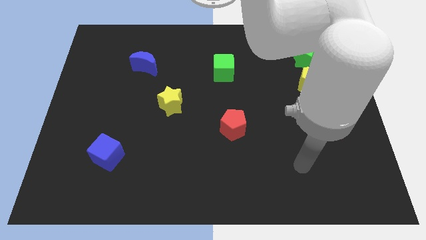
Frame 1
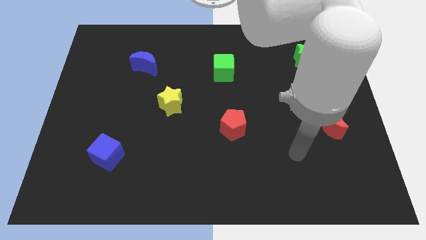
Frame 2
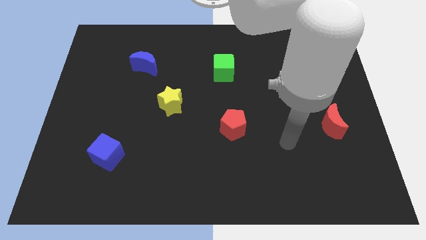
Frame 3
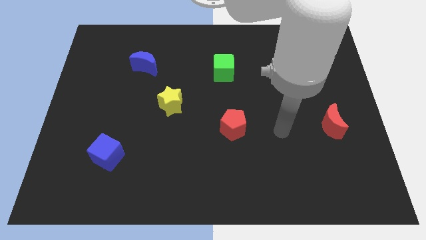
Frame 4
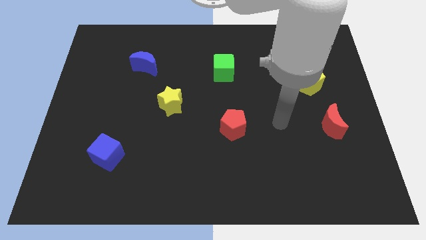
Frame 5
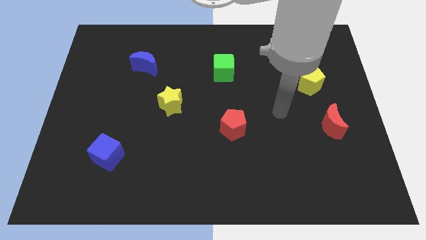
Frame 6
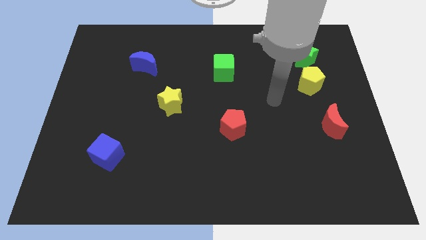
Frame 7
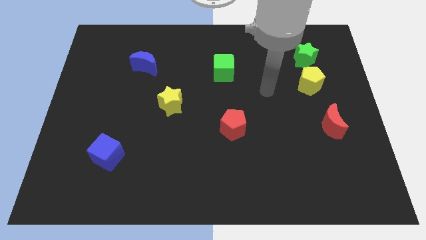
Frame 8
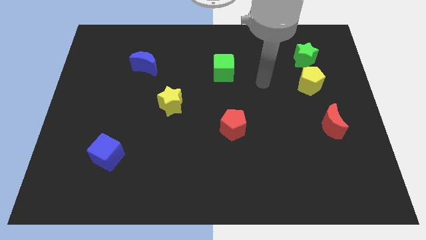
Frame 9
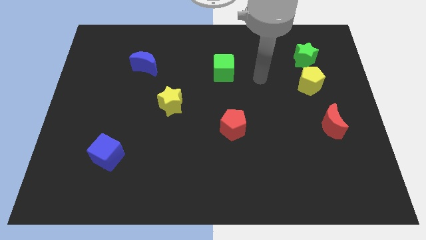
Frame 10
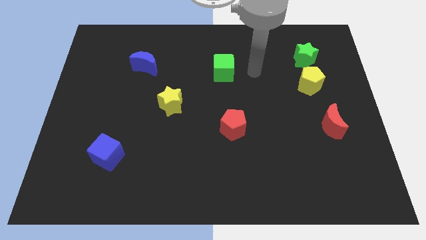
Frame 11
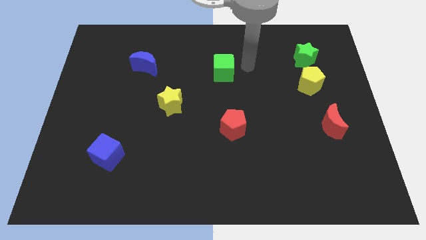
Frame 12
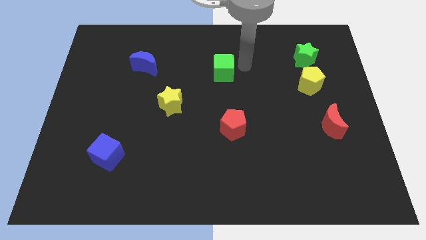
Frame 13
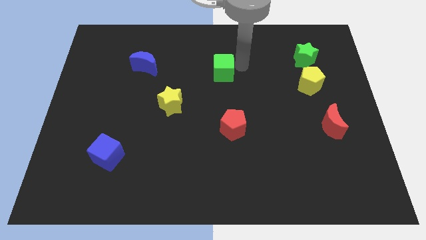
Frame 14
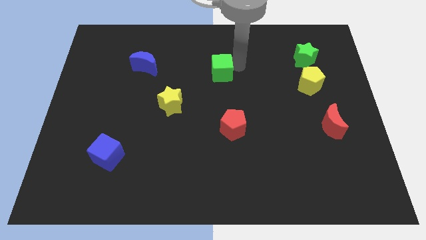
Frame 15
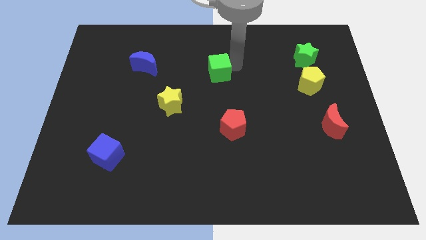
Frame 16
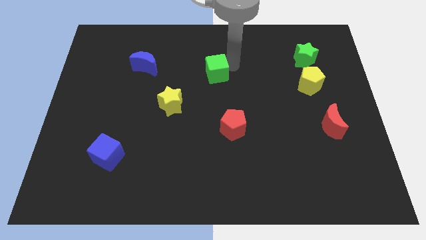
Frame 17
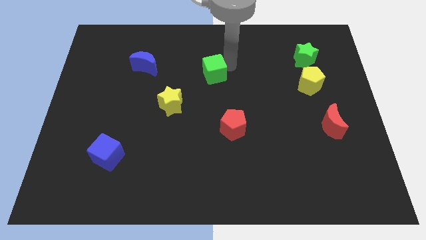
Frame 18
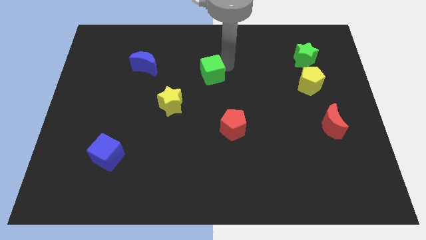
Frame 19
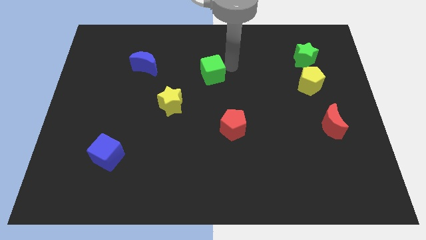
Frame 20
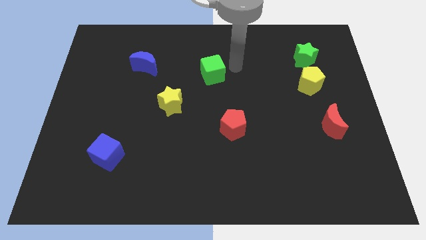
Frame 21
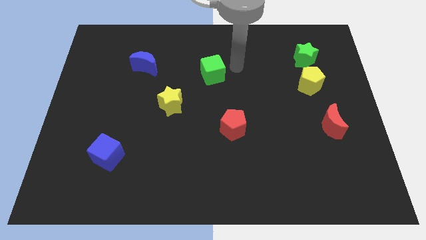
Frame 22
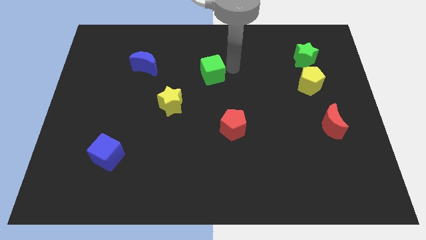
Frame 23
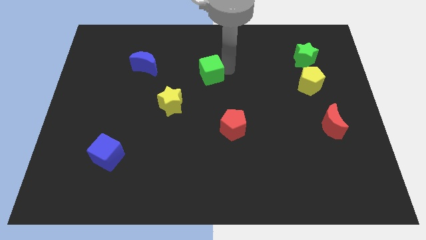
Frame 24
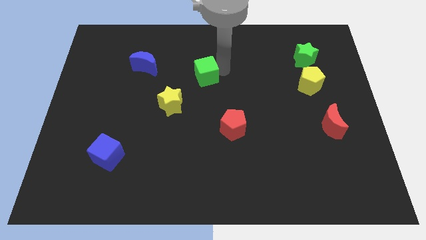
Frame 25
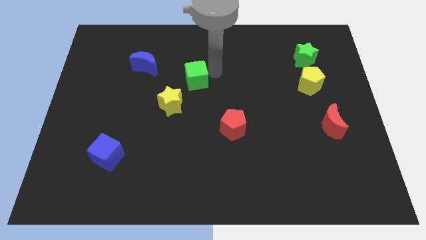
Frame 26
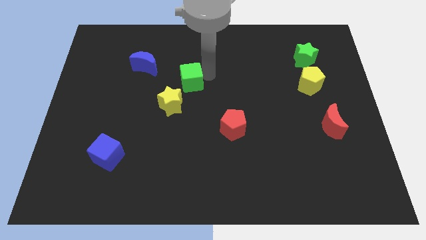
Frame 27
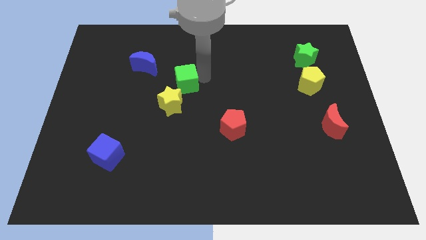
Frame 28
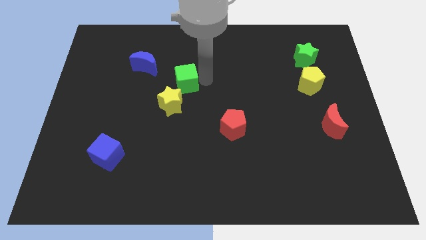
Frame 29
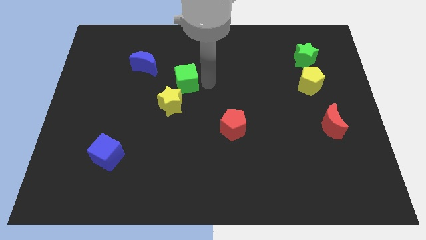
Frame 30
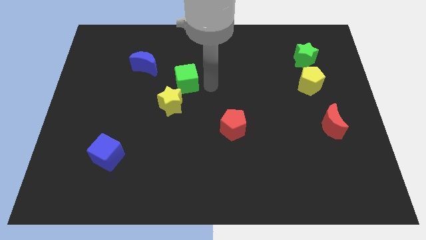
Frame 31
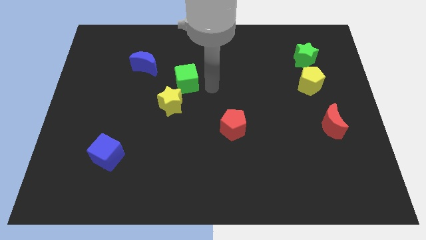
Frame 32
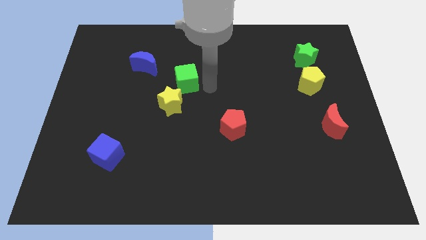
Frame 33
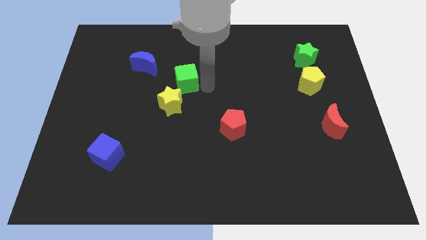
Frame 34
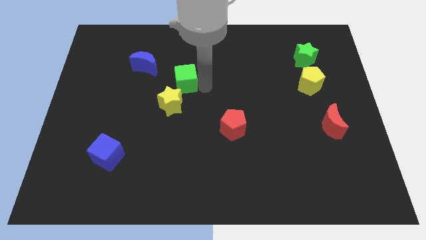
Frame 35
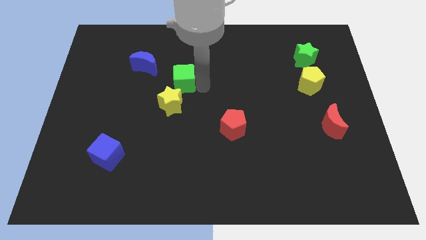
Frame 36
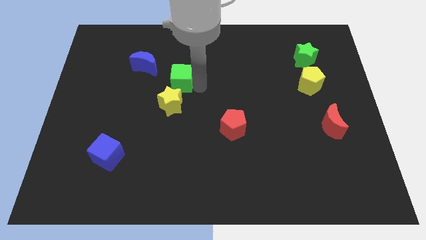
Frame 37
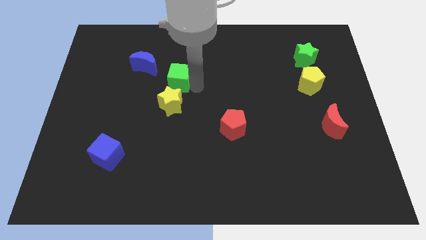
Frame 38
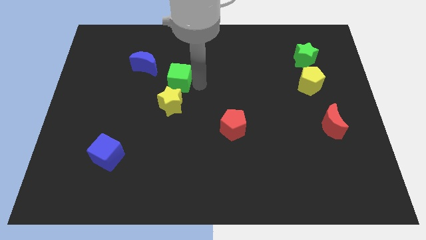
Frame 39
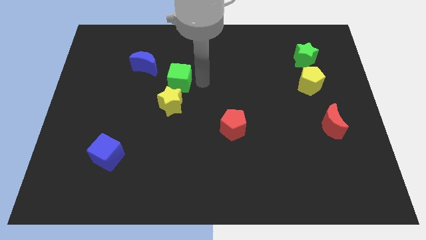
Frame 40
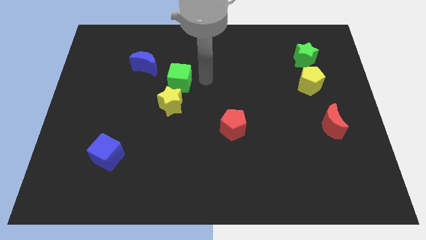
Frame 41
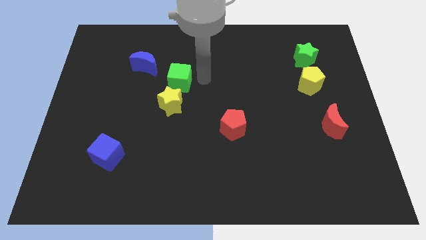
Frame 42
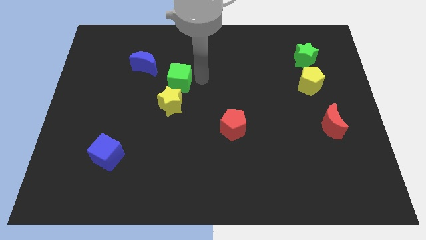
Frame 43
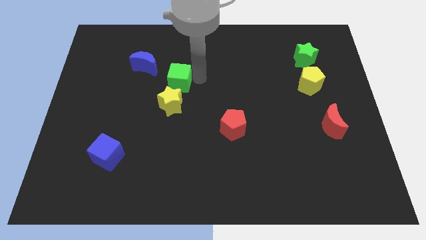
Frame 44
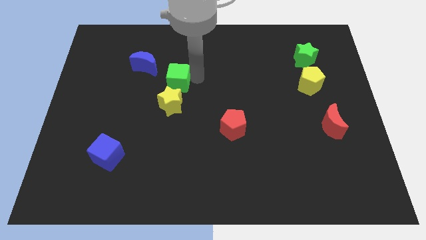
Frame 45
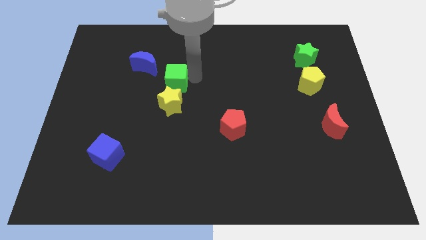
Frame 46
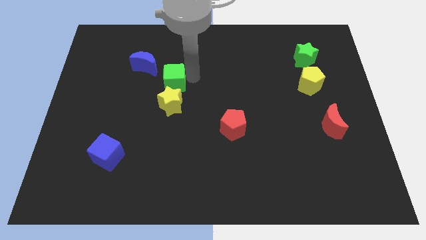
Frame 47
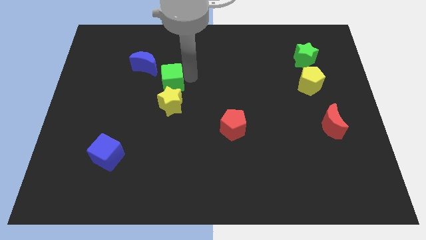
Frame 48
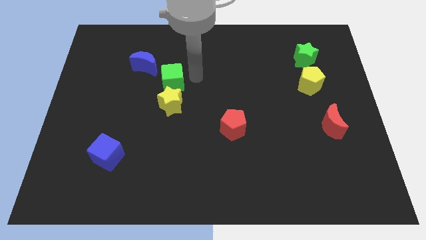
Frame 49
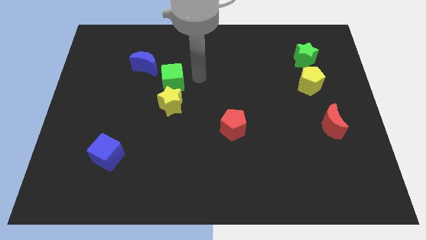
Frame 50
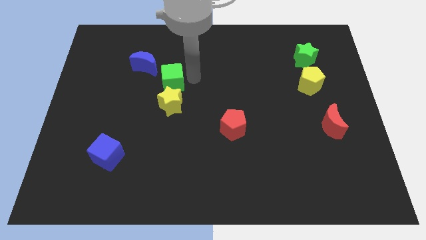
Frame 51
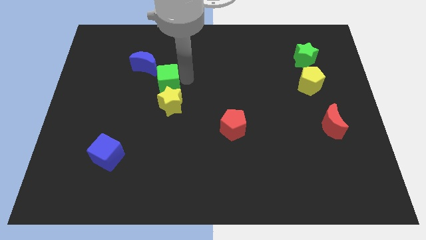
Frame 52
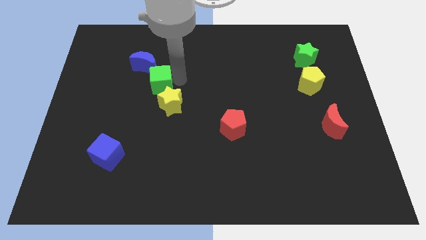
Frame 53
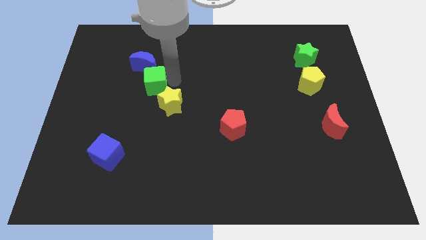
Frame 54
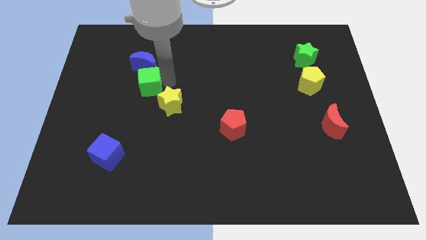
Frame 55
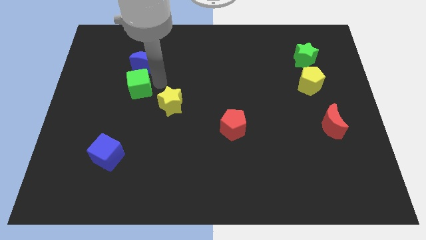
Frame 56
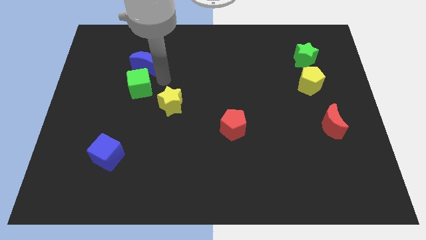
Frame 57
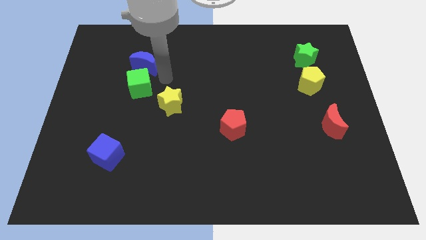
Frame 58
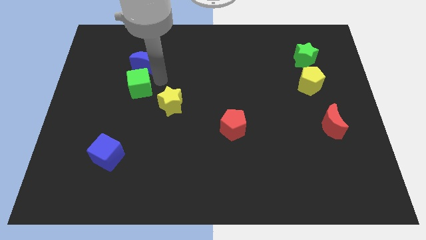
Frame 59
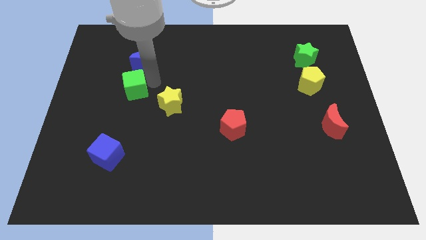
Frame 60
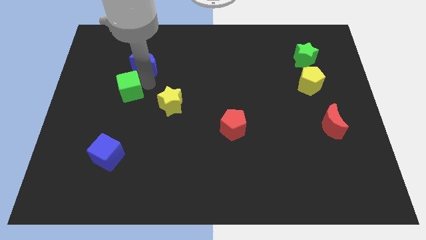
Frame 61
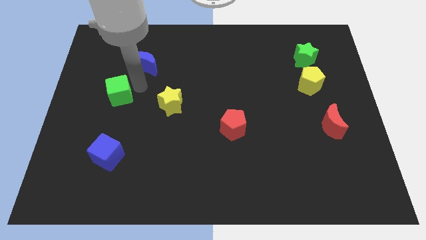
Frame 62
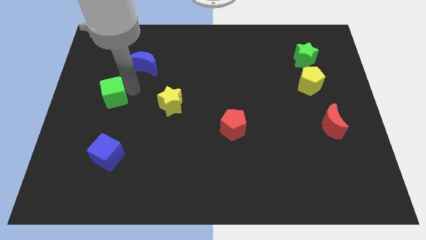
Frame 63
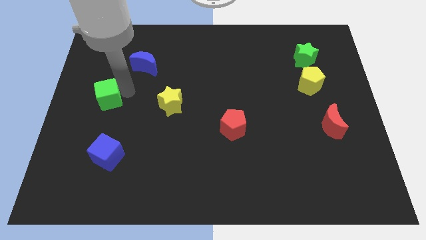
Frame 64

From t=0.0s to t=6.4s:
put the green cube to the center left

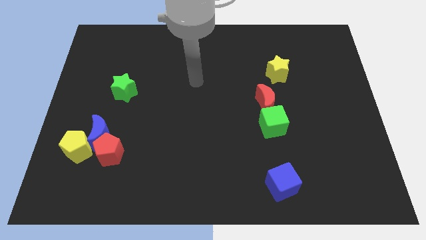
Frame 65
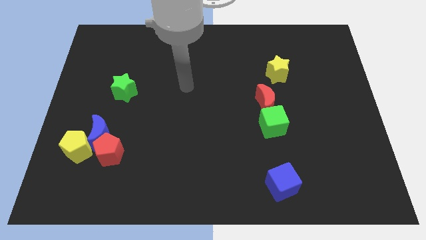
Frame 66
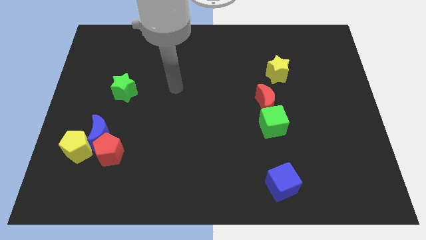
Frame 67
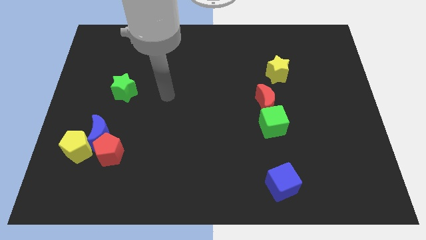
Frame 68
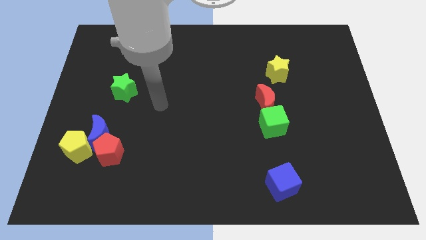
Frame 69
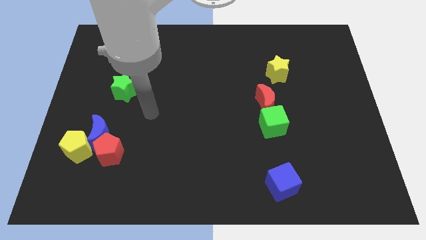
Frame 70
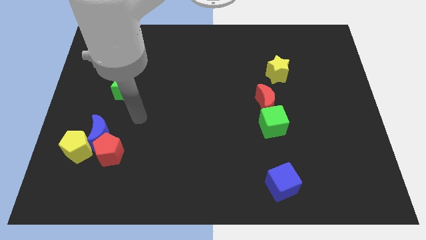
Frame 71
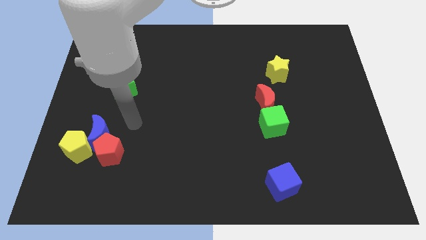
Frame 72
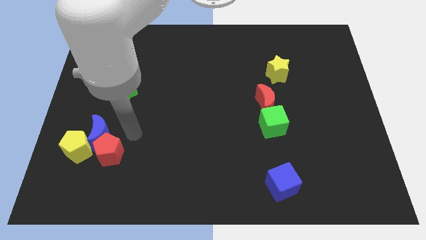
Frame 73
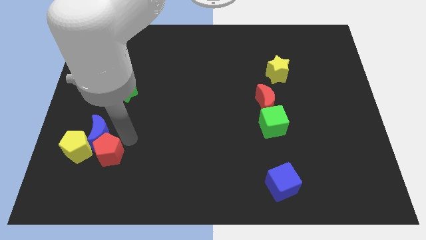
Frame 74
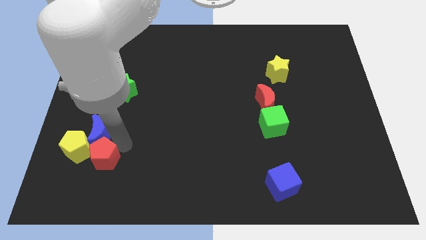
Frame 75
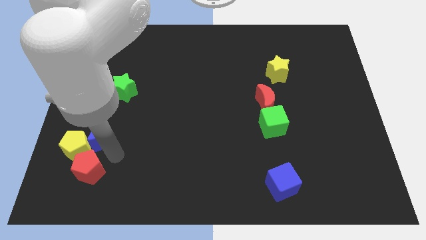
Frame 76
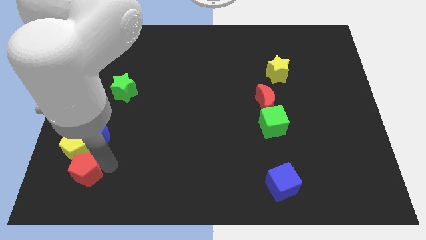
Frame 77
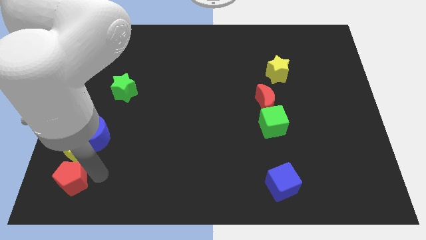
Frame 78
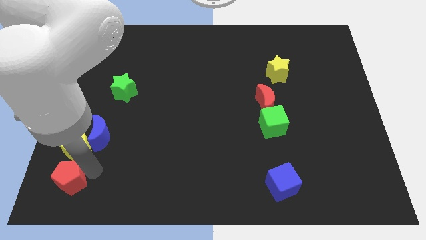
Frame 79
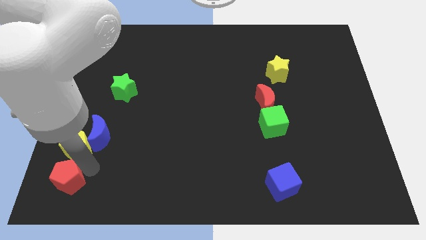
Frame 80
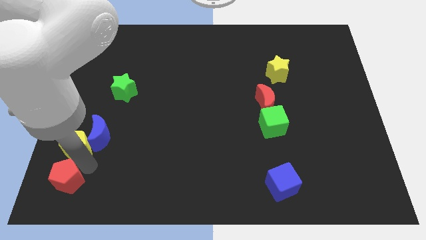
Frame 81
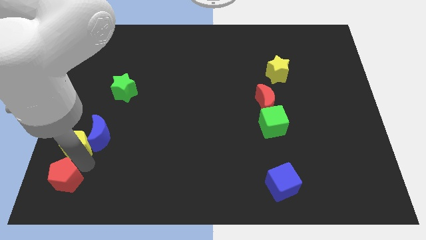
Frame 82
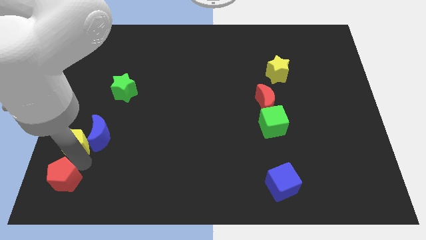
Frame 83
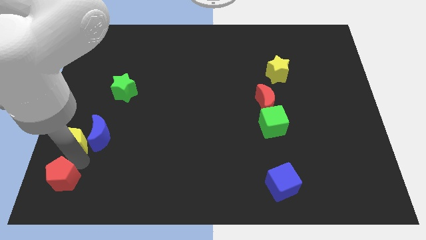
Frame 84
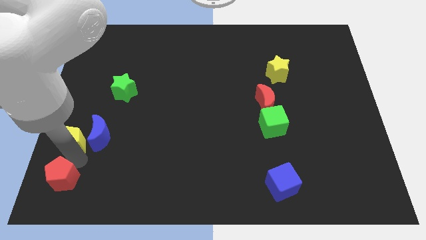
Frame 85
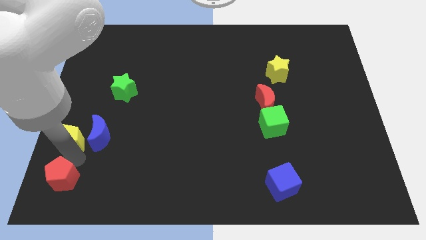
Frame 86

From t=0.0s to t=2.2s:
put the yellow pentagon to the left side of the board

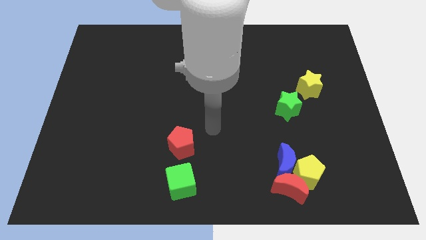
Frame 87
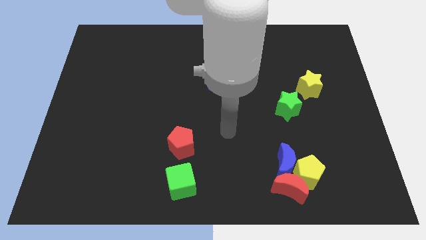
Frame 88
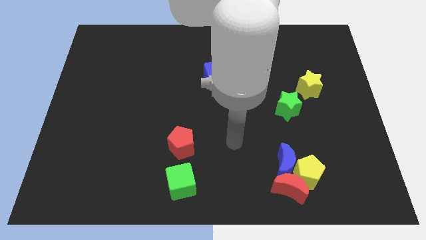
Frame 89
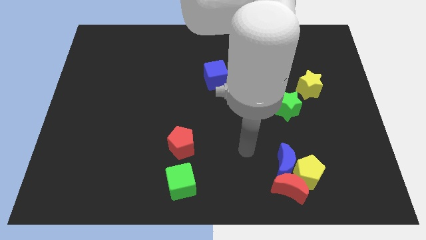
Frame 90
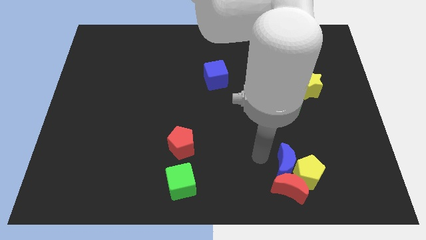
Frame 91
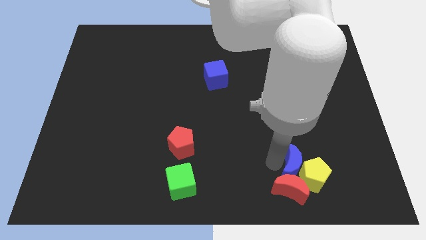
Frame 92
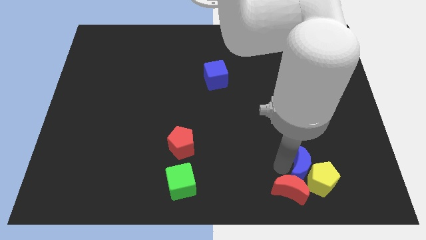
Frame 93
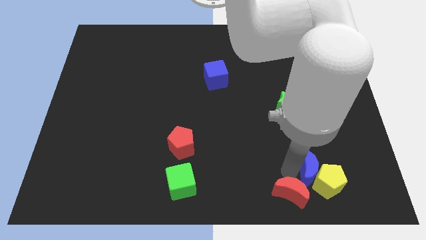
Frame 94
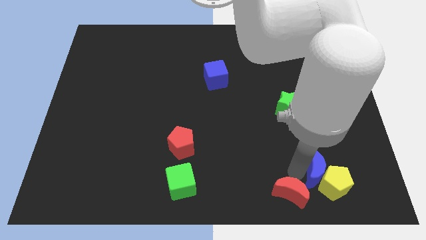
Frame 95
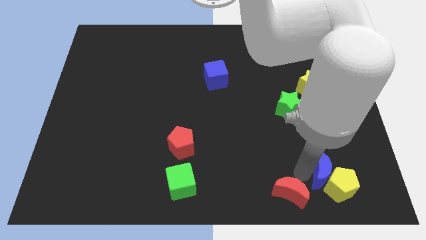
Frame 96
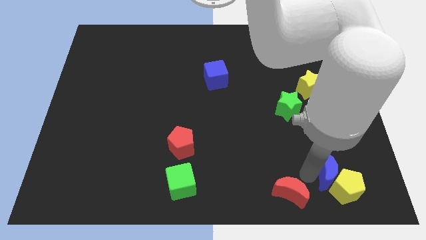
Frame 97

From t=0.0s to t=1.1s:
move the yellow pentagon to the bottom right corner
